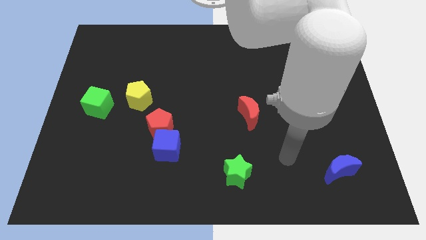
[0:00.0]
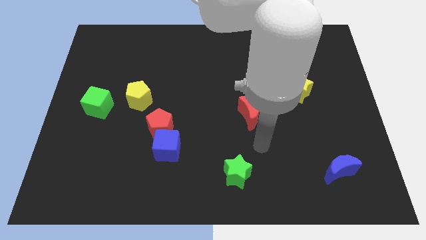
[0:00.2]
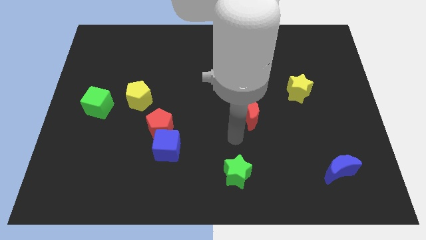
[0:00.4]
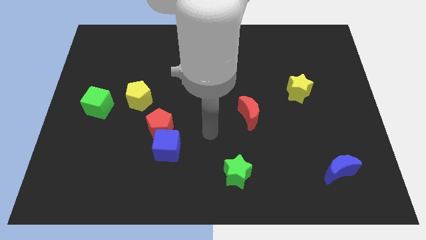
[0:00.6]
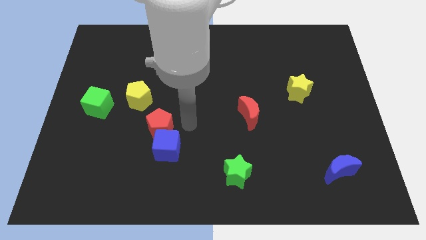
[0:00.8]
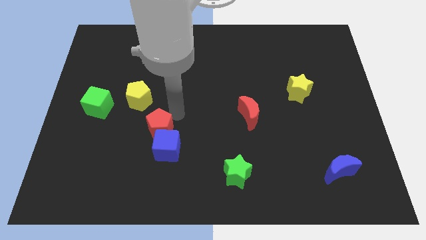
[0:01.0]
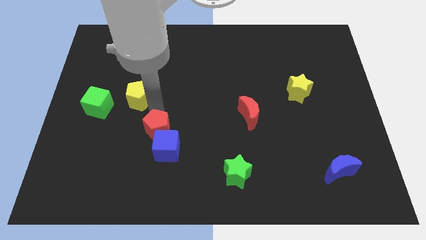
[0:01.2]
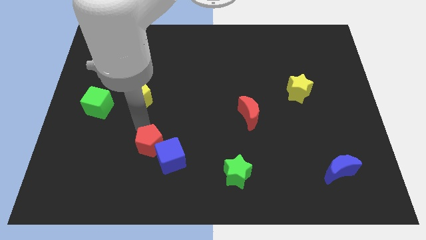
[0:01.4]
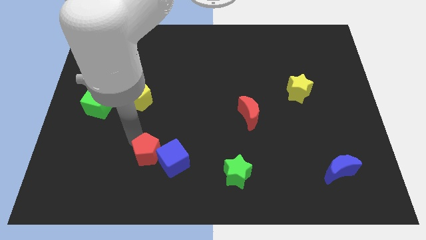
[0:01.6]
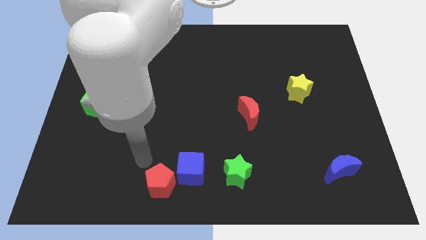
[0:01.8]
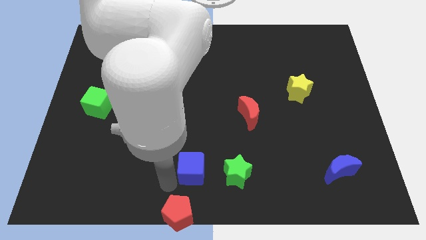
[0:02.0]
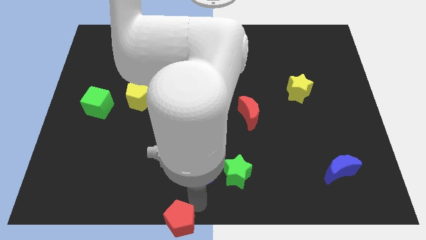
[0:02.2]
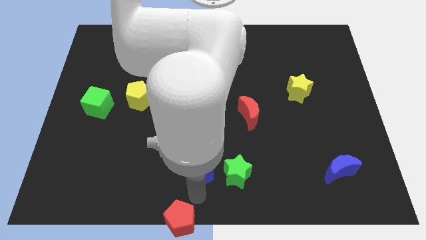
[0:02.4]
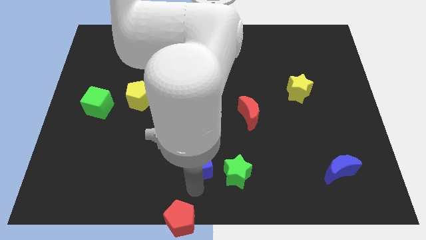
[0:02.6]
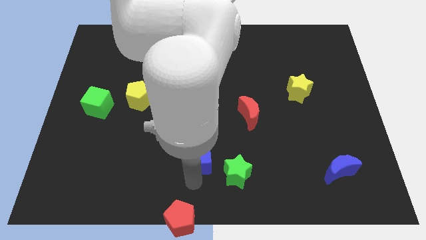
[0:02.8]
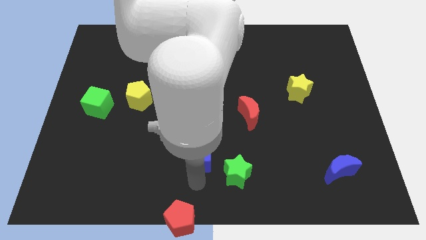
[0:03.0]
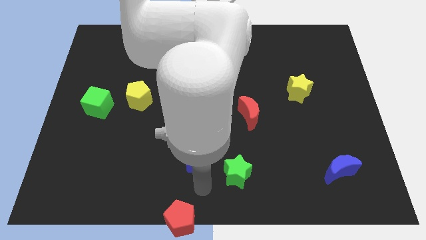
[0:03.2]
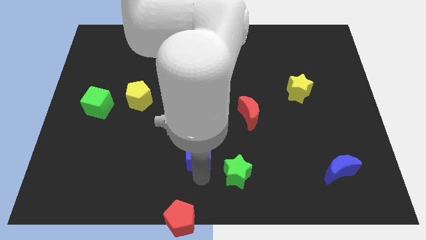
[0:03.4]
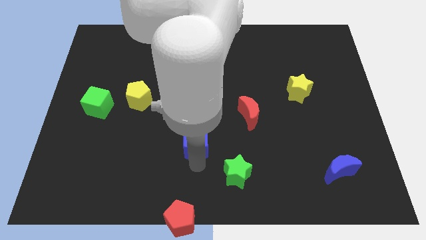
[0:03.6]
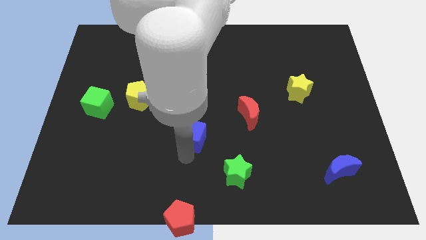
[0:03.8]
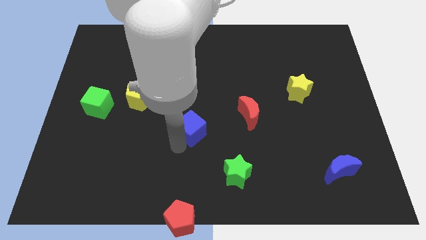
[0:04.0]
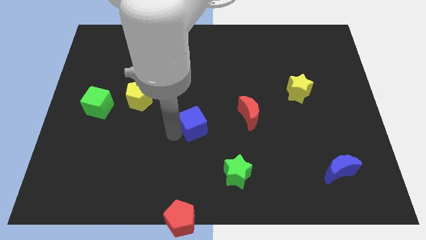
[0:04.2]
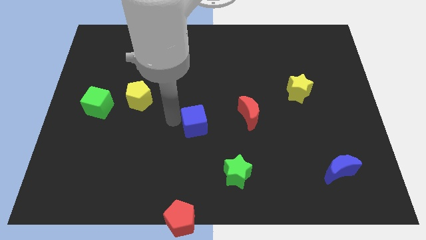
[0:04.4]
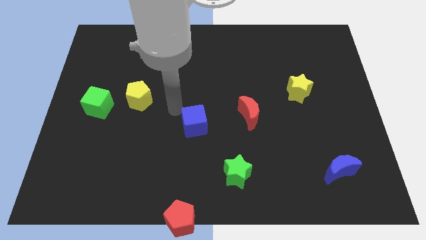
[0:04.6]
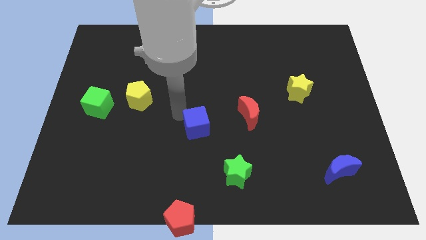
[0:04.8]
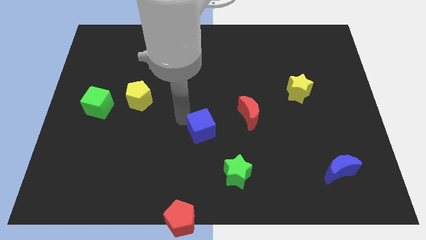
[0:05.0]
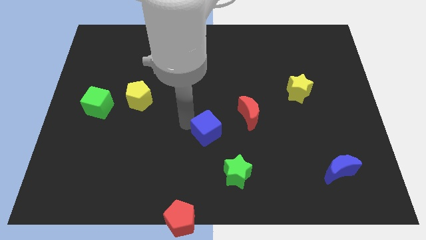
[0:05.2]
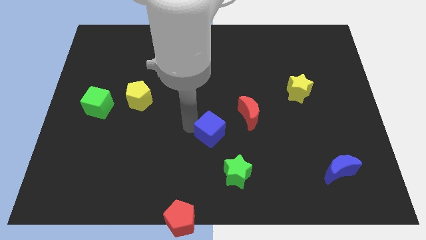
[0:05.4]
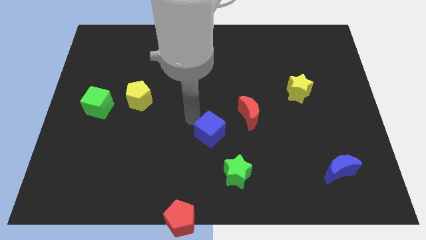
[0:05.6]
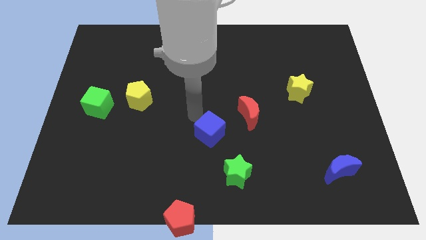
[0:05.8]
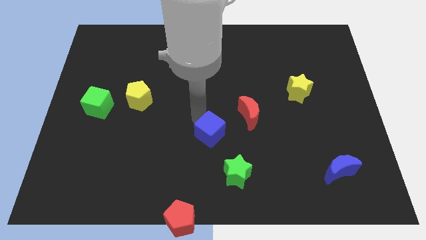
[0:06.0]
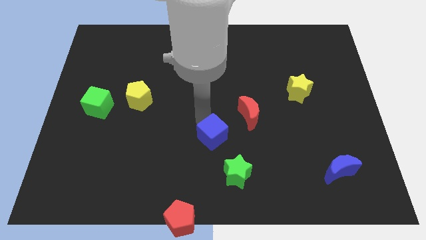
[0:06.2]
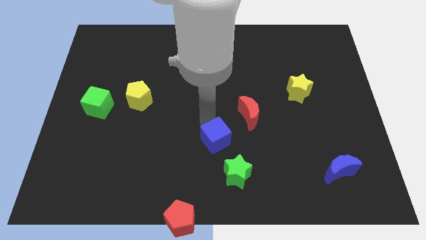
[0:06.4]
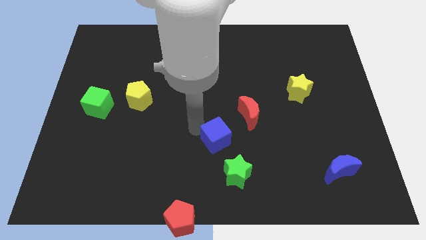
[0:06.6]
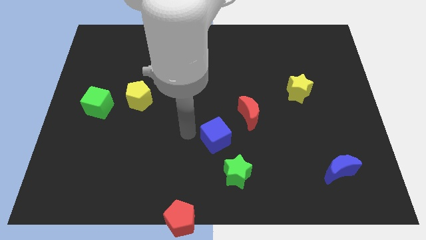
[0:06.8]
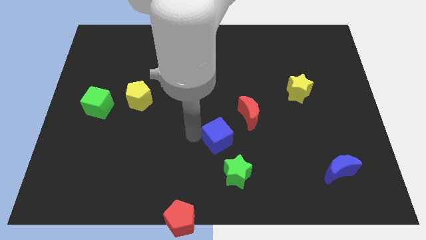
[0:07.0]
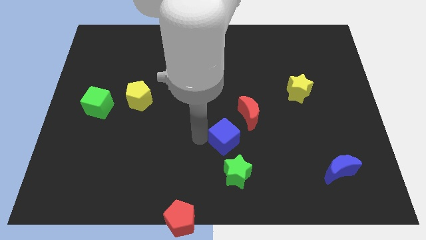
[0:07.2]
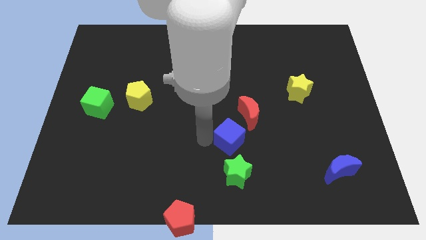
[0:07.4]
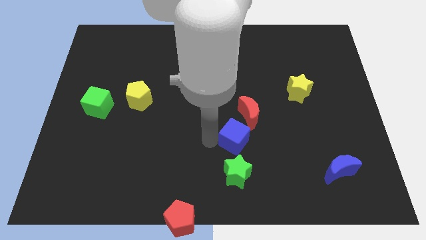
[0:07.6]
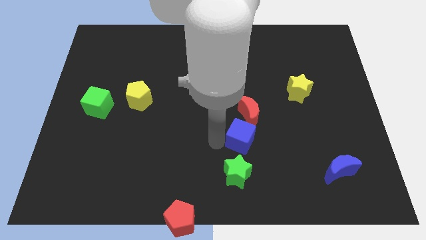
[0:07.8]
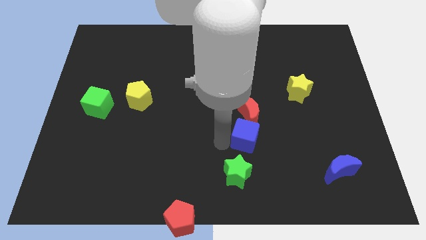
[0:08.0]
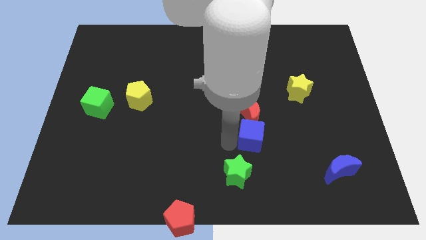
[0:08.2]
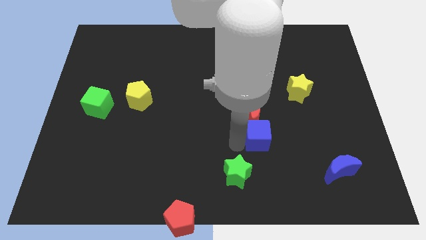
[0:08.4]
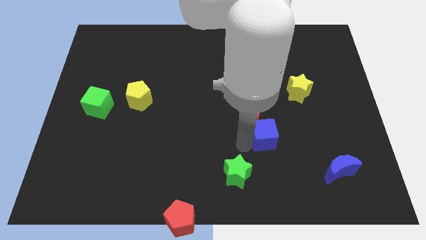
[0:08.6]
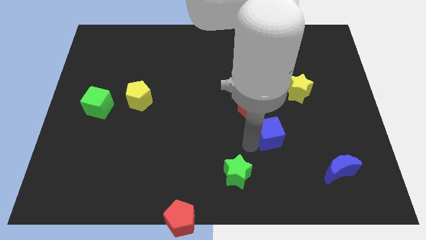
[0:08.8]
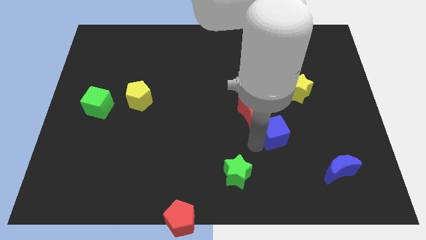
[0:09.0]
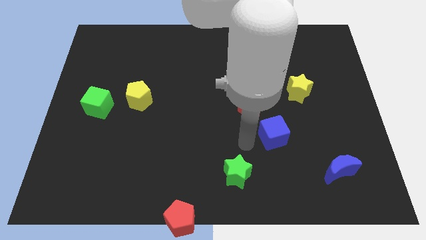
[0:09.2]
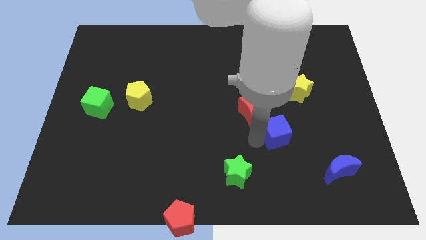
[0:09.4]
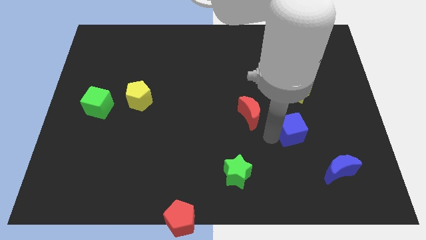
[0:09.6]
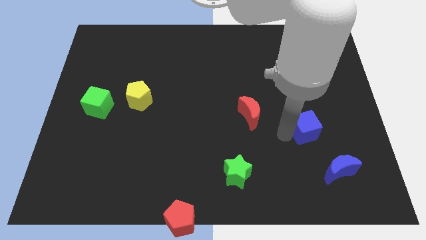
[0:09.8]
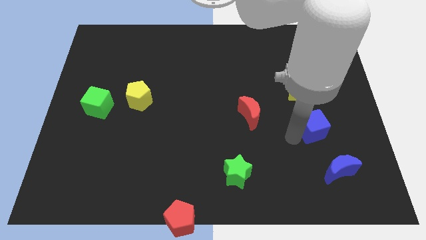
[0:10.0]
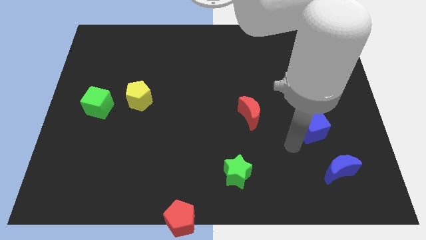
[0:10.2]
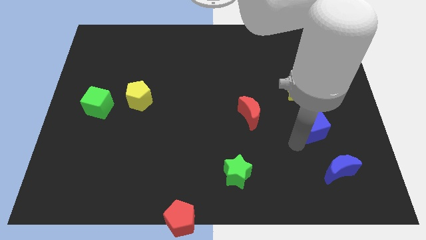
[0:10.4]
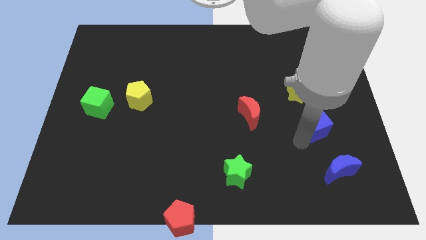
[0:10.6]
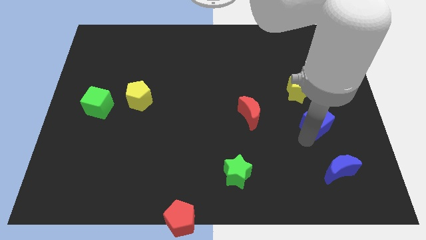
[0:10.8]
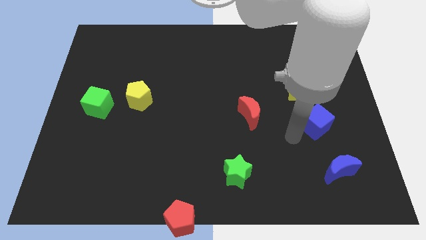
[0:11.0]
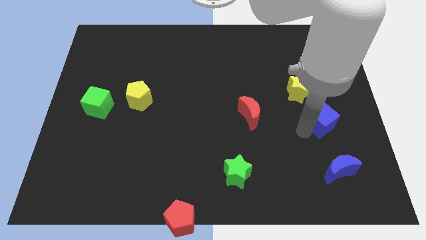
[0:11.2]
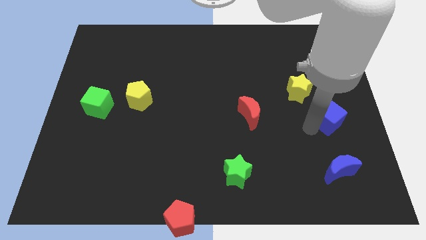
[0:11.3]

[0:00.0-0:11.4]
move the blue cube to the right side

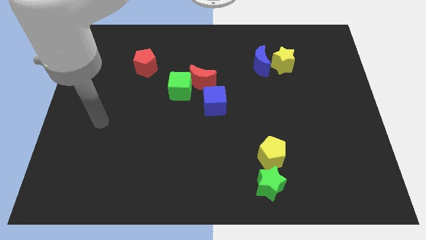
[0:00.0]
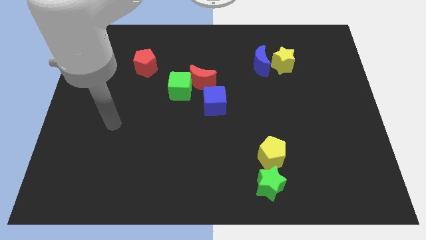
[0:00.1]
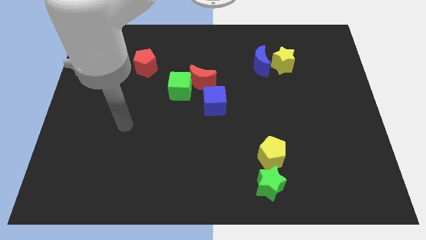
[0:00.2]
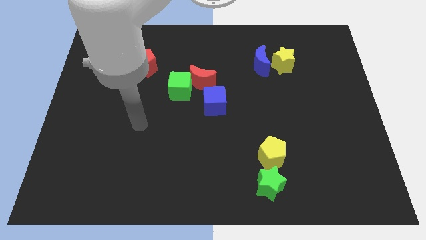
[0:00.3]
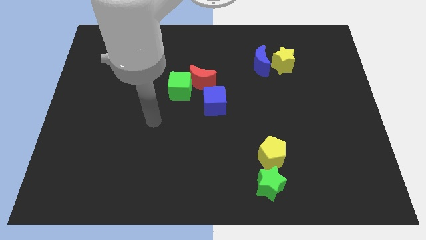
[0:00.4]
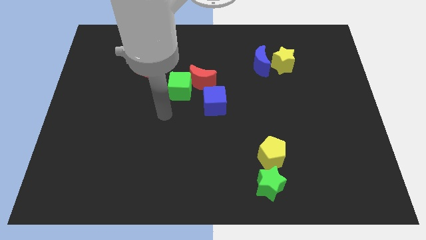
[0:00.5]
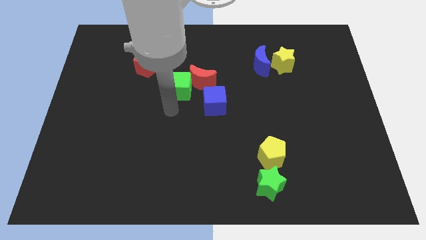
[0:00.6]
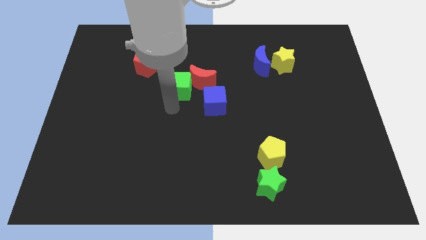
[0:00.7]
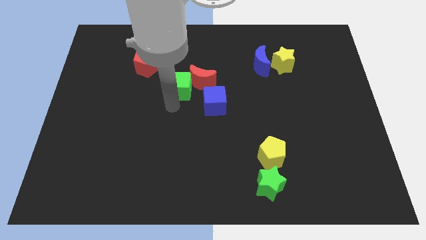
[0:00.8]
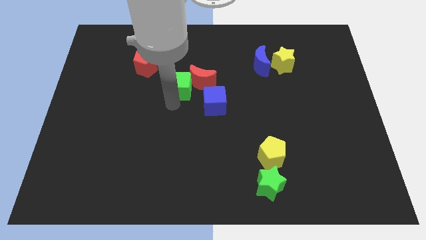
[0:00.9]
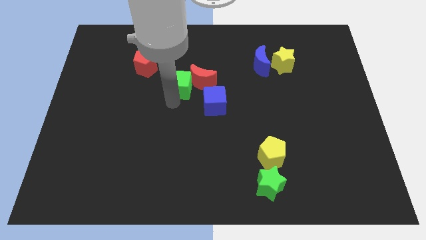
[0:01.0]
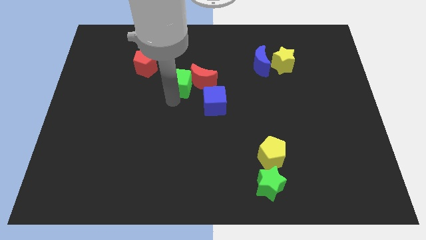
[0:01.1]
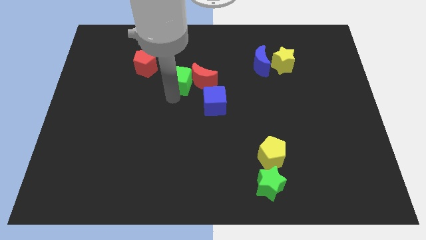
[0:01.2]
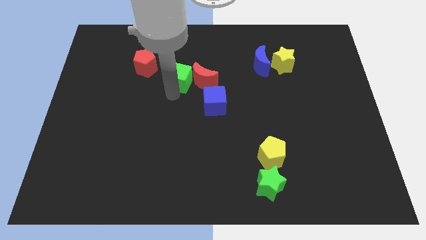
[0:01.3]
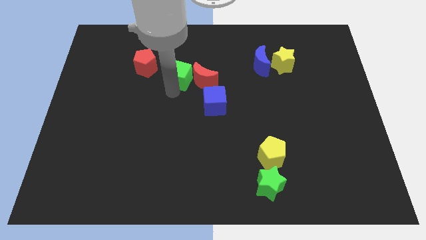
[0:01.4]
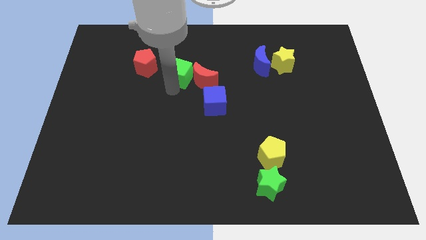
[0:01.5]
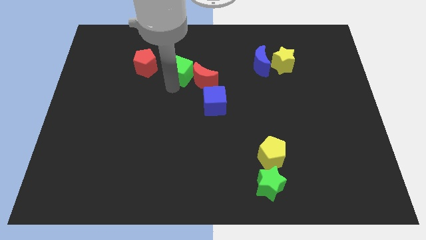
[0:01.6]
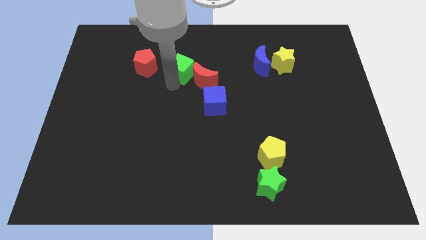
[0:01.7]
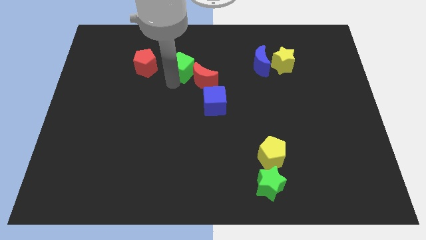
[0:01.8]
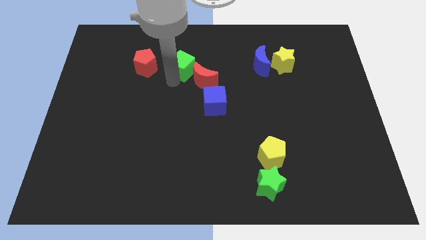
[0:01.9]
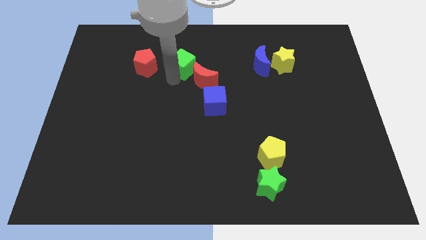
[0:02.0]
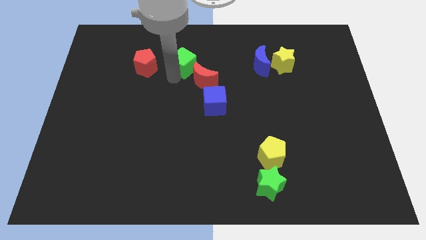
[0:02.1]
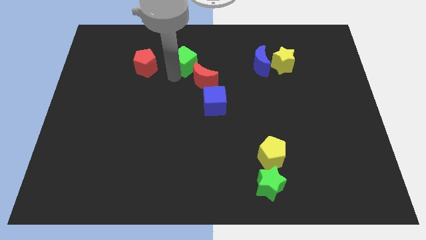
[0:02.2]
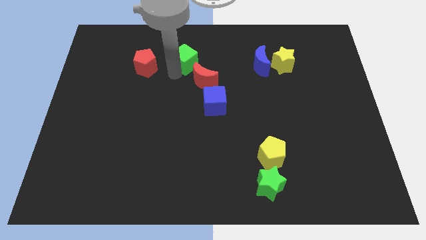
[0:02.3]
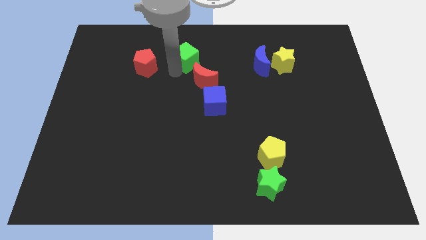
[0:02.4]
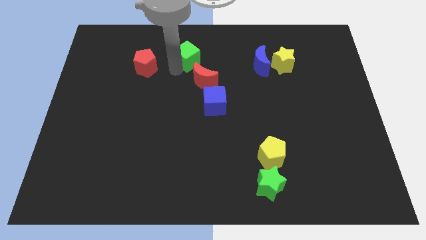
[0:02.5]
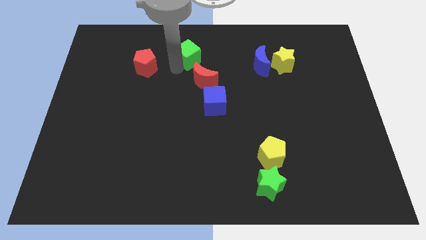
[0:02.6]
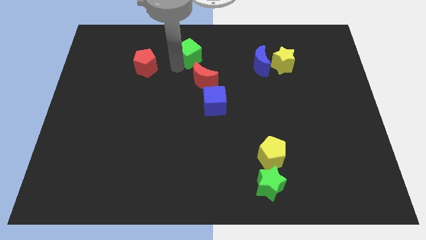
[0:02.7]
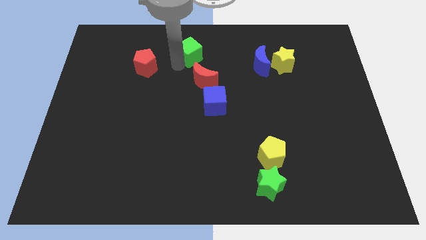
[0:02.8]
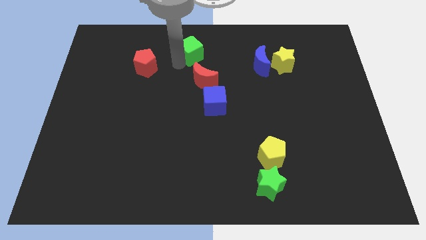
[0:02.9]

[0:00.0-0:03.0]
move the green cube to the towards your base

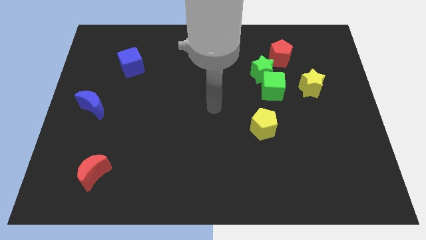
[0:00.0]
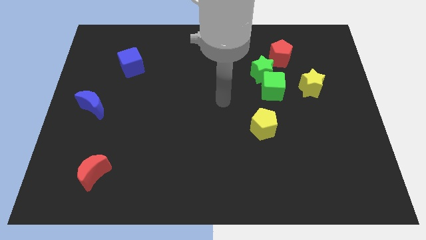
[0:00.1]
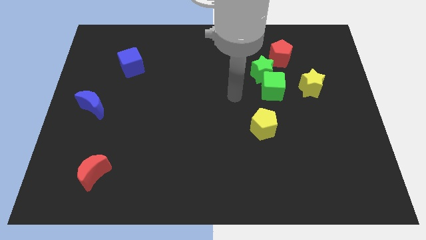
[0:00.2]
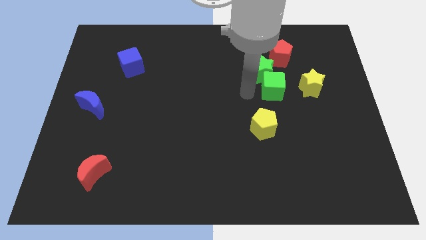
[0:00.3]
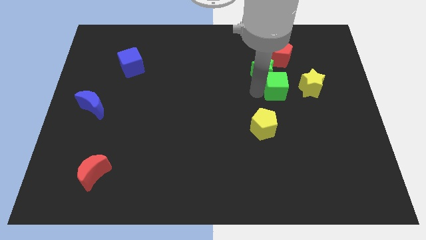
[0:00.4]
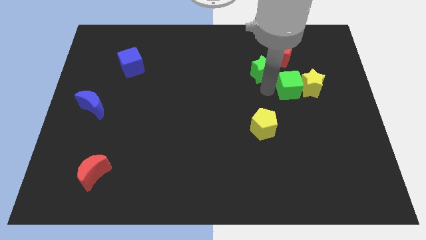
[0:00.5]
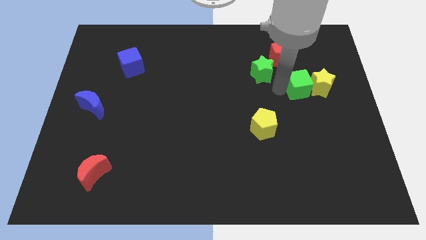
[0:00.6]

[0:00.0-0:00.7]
move the yellow star to the center right
